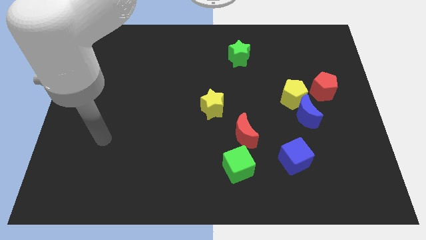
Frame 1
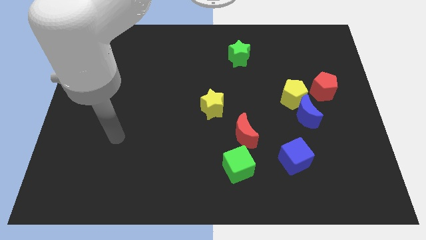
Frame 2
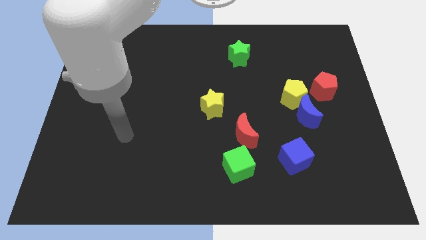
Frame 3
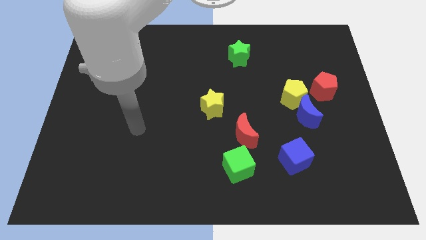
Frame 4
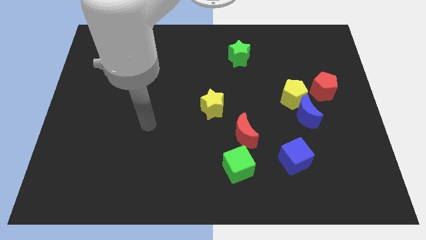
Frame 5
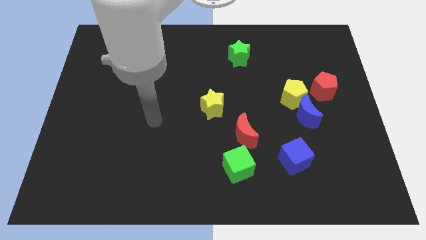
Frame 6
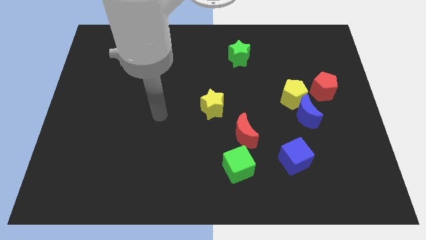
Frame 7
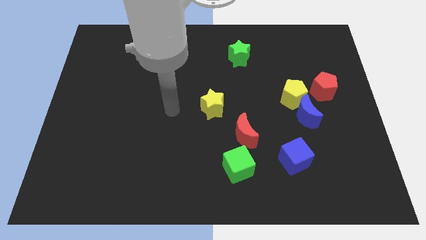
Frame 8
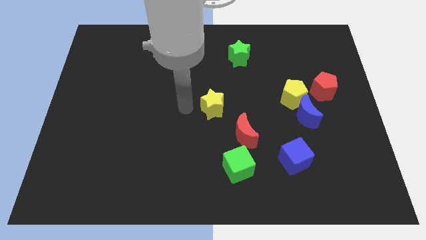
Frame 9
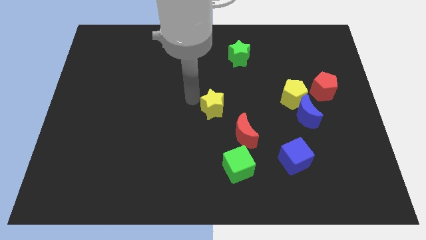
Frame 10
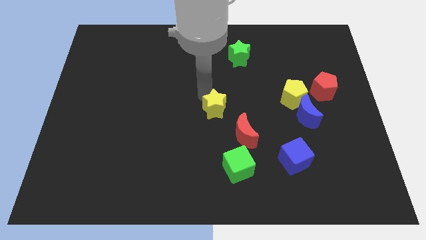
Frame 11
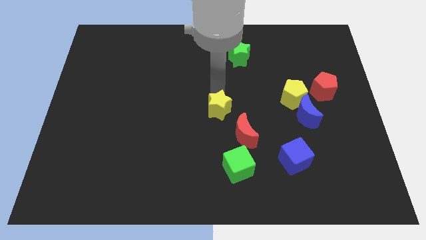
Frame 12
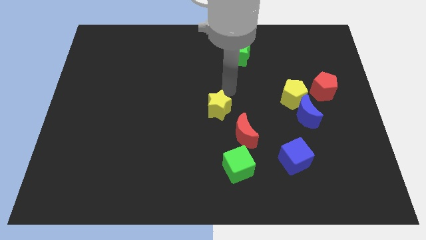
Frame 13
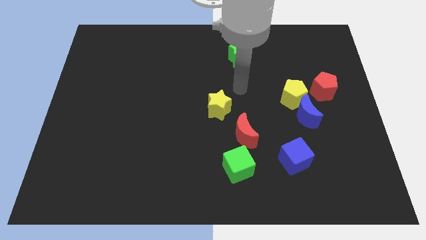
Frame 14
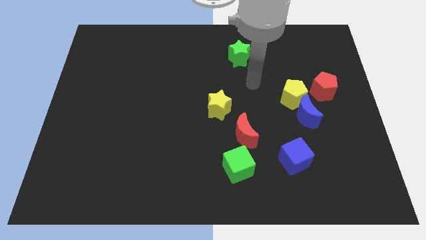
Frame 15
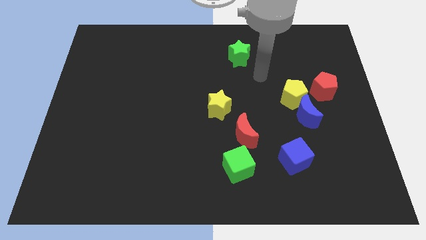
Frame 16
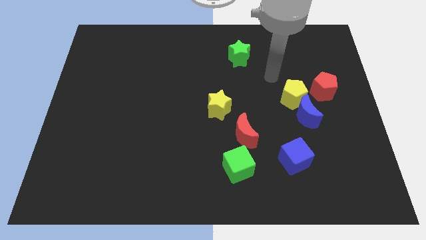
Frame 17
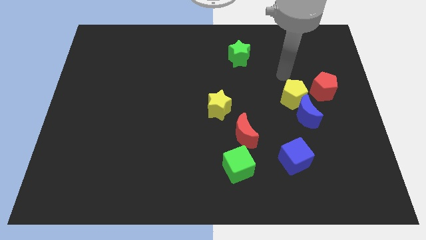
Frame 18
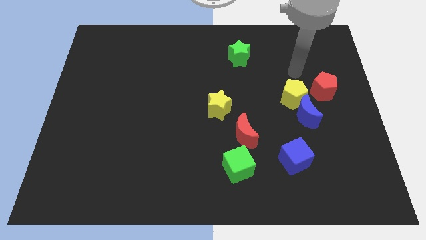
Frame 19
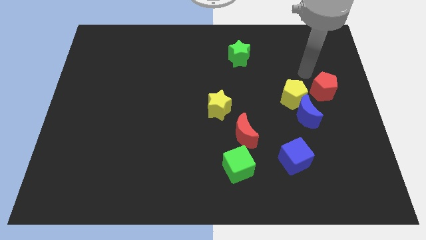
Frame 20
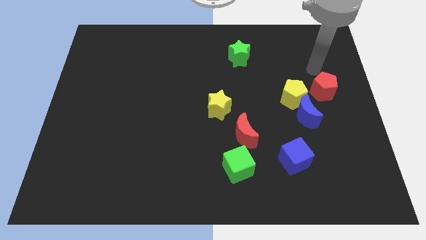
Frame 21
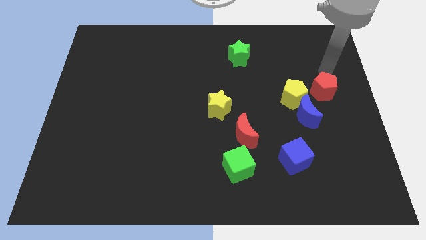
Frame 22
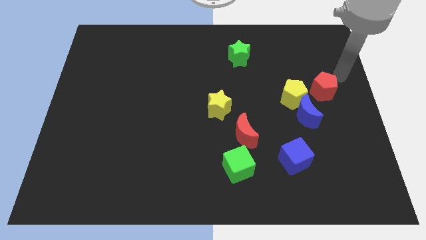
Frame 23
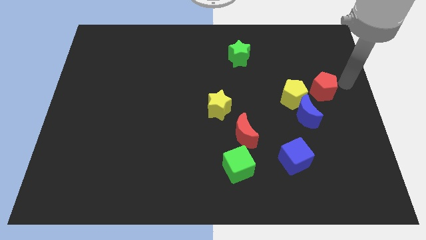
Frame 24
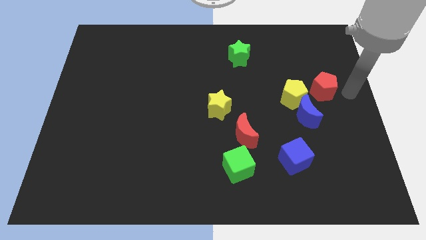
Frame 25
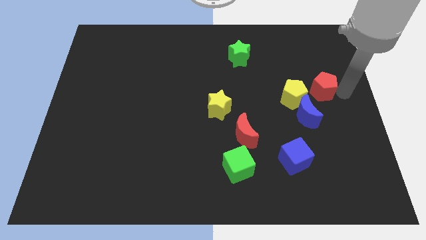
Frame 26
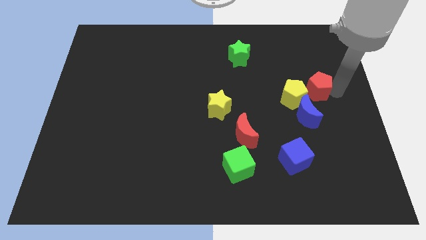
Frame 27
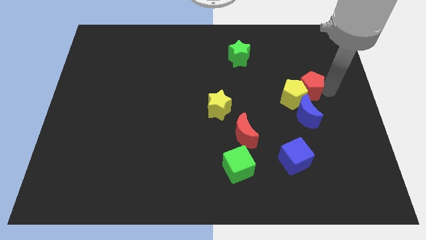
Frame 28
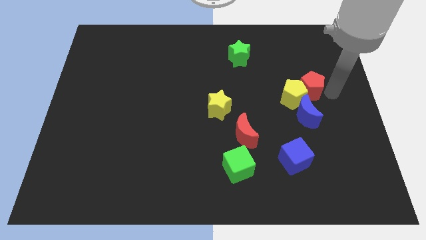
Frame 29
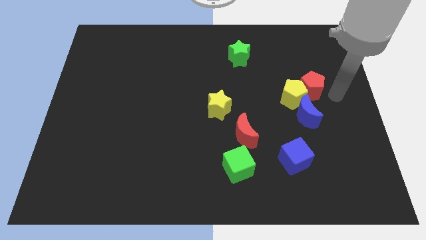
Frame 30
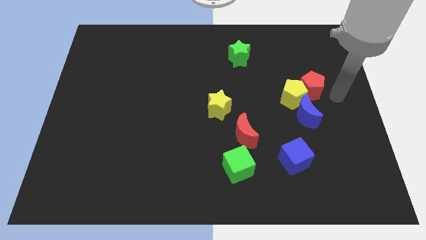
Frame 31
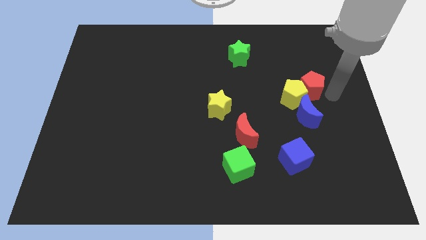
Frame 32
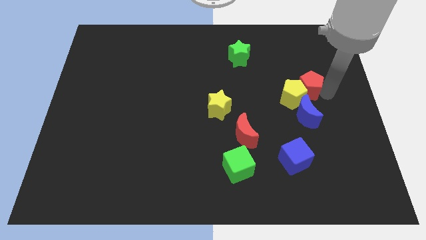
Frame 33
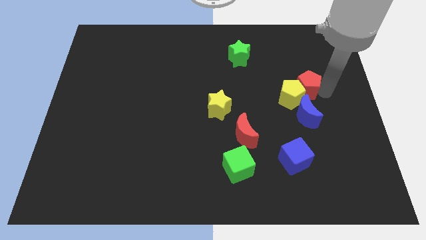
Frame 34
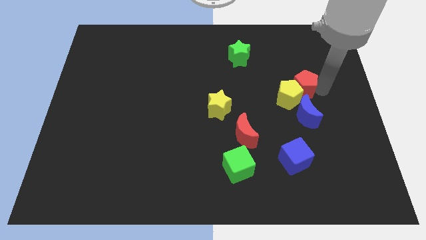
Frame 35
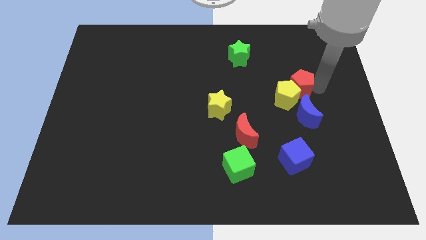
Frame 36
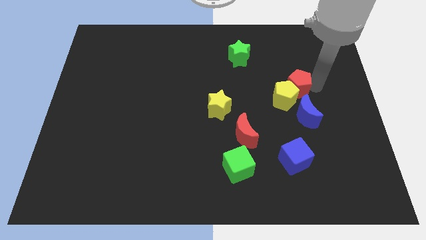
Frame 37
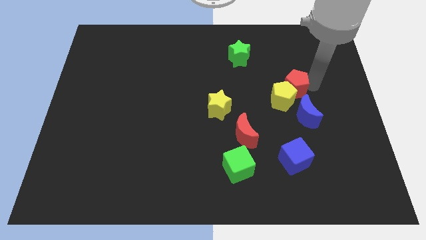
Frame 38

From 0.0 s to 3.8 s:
slide the red pentagon left slightly

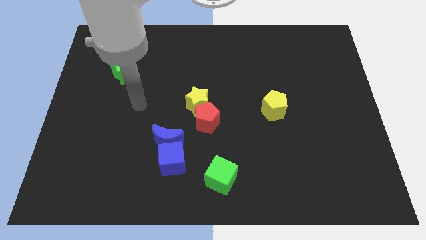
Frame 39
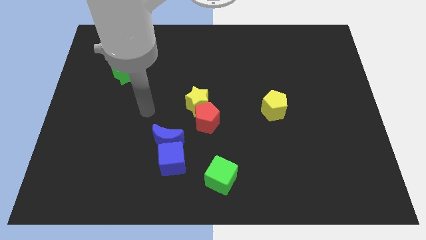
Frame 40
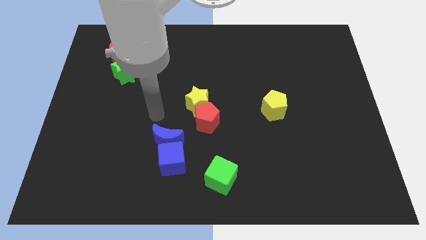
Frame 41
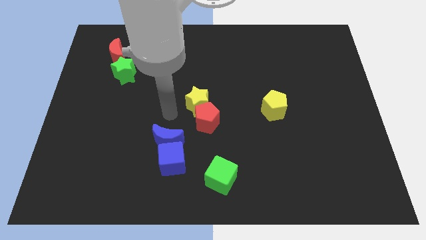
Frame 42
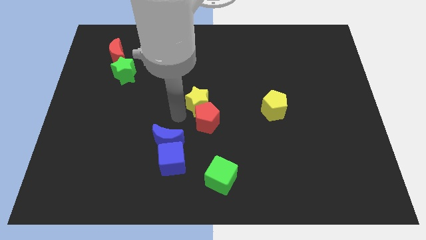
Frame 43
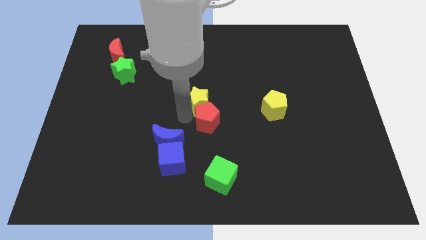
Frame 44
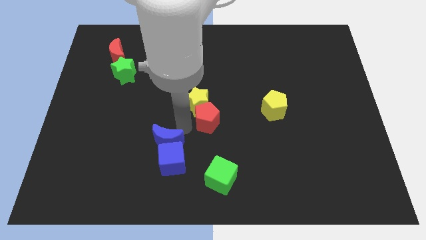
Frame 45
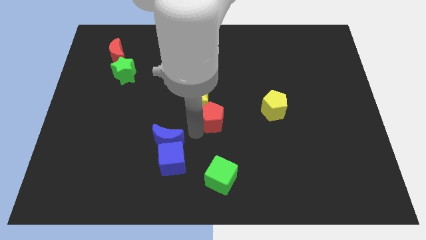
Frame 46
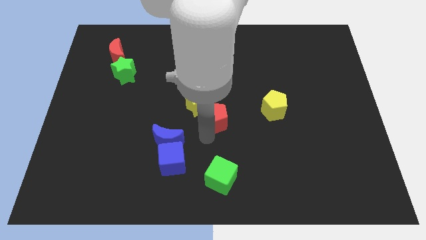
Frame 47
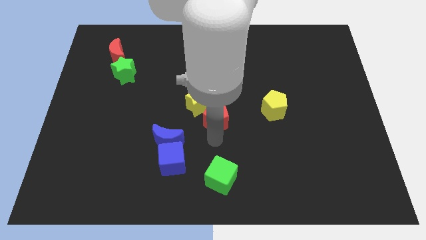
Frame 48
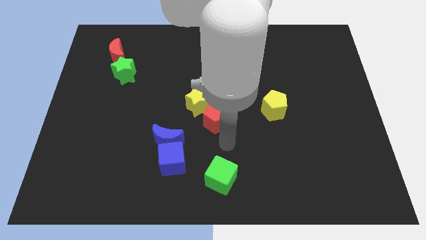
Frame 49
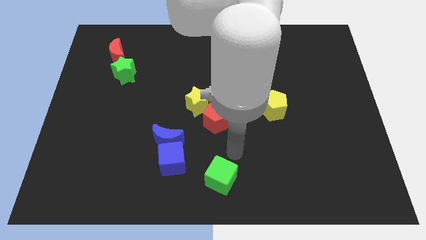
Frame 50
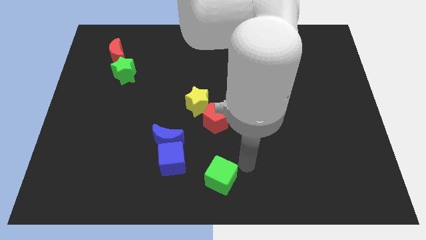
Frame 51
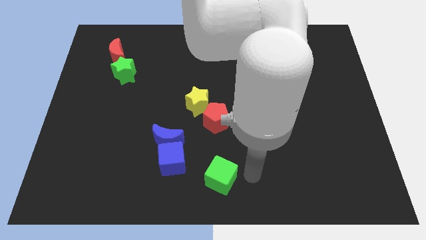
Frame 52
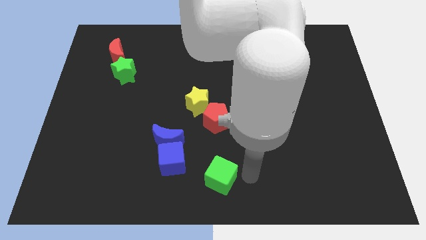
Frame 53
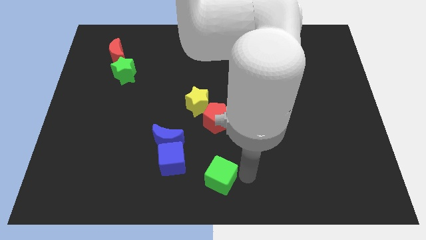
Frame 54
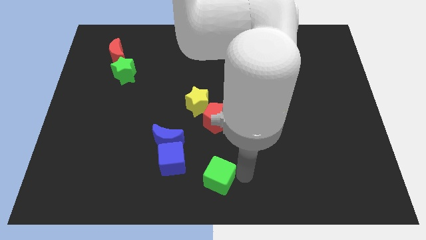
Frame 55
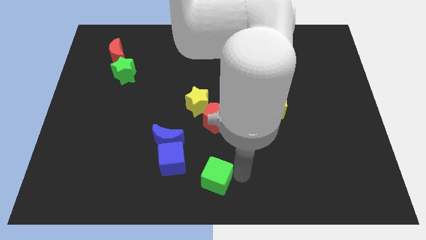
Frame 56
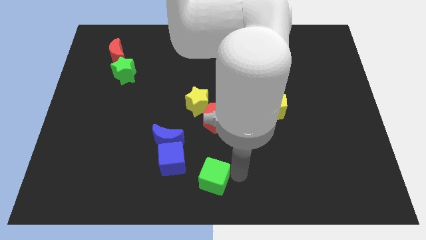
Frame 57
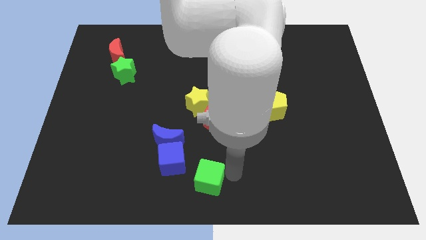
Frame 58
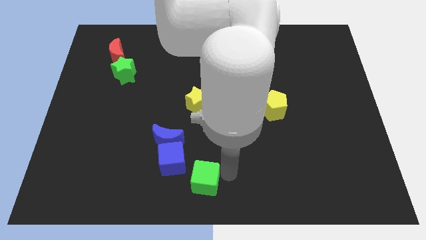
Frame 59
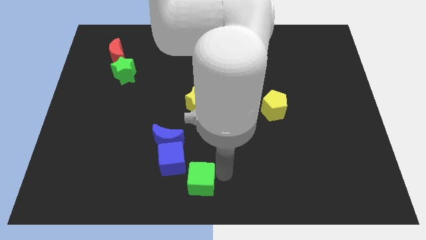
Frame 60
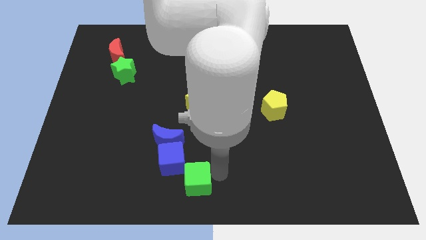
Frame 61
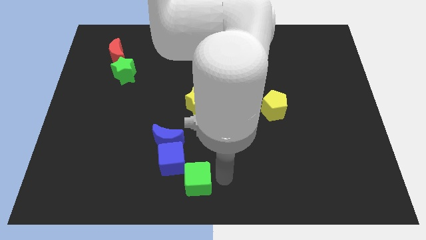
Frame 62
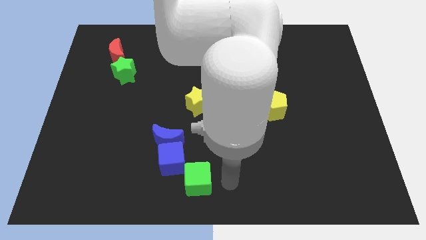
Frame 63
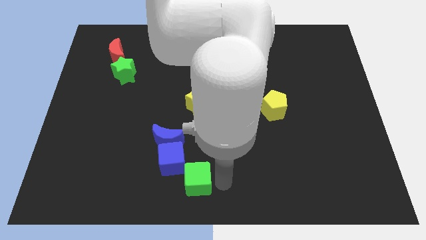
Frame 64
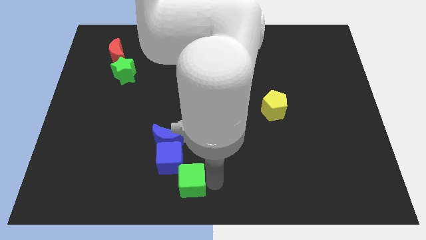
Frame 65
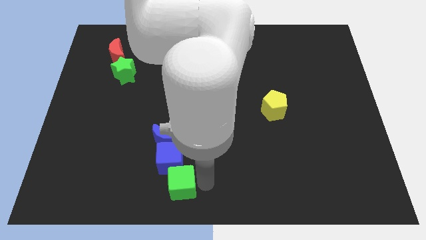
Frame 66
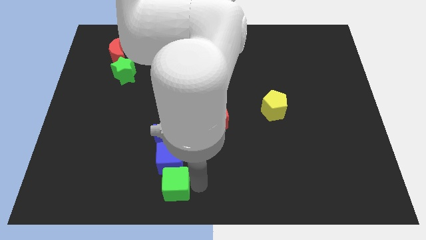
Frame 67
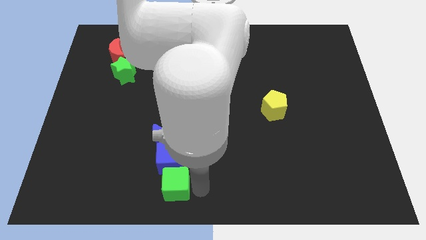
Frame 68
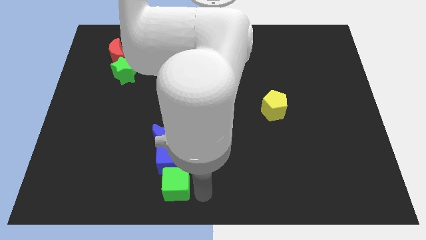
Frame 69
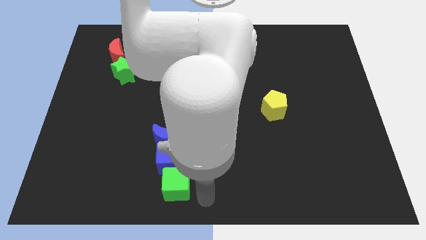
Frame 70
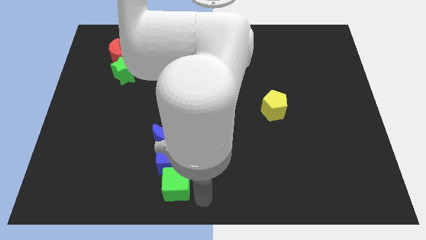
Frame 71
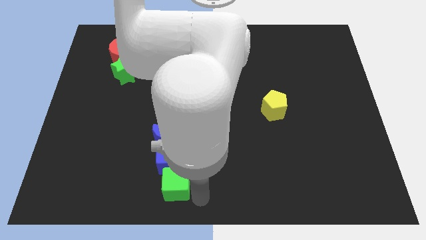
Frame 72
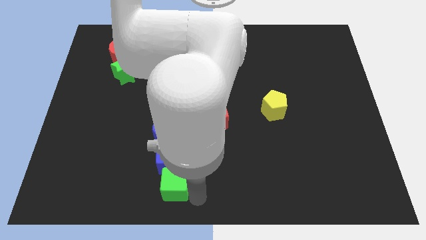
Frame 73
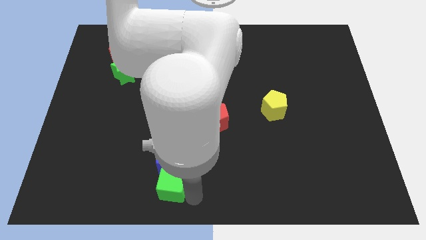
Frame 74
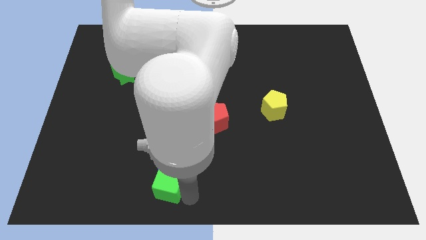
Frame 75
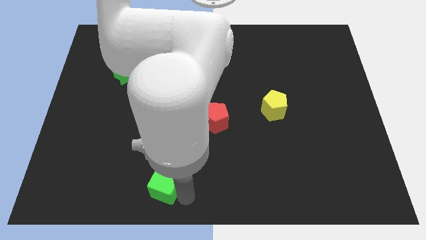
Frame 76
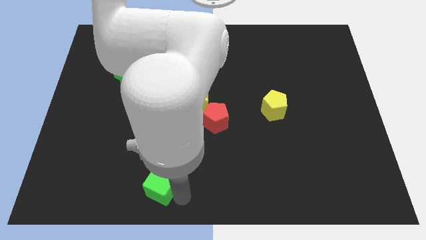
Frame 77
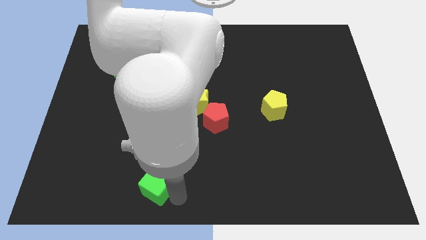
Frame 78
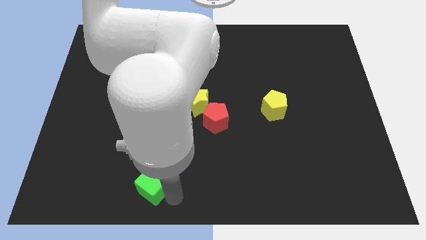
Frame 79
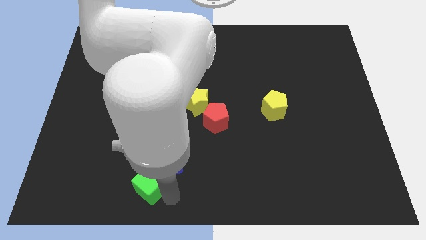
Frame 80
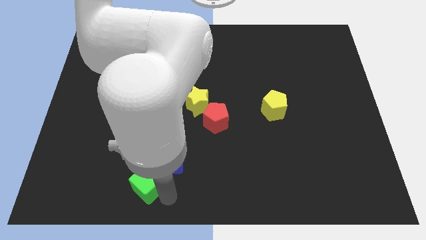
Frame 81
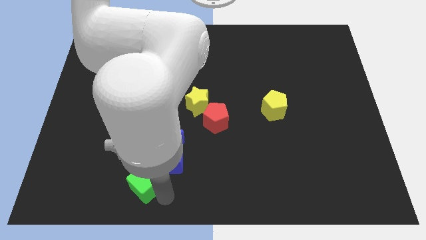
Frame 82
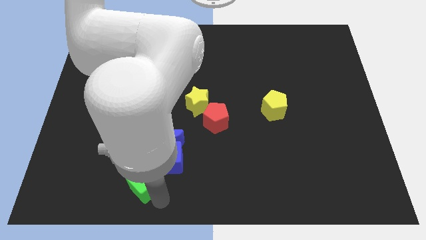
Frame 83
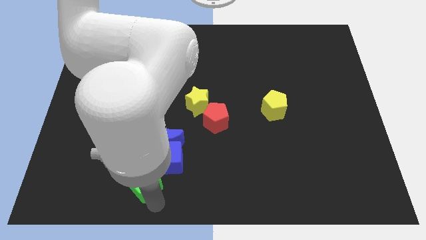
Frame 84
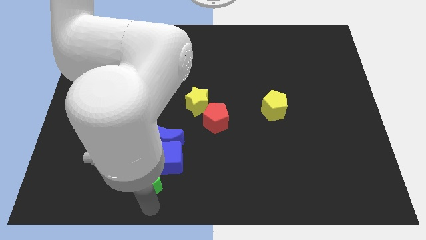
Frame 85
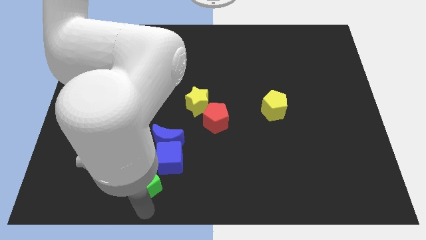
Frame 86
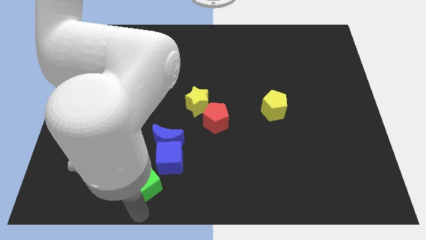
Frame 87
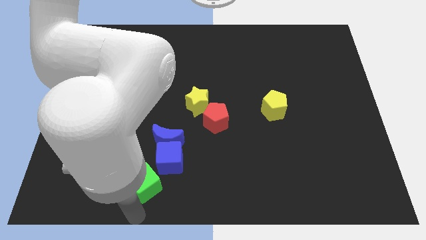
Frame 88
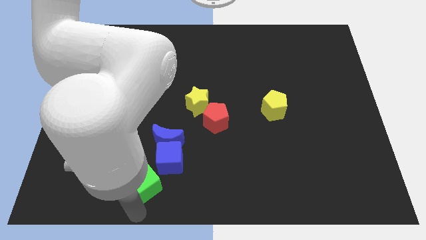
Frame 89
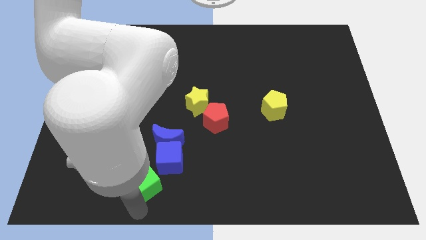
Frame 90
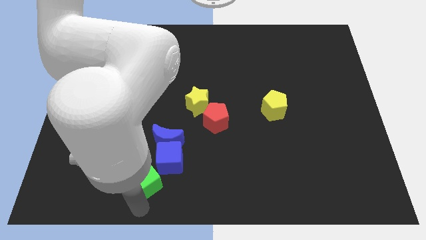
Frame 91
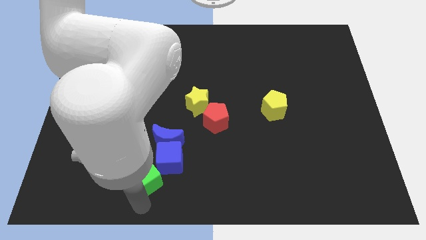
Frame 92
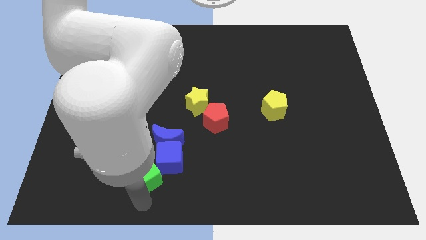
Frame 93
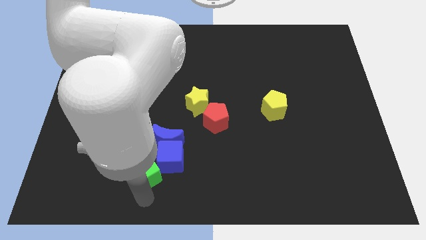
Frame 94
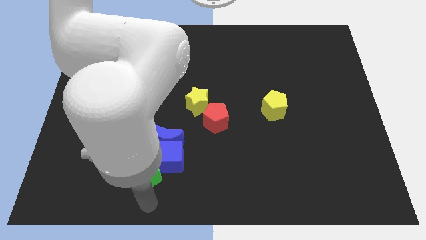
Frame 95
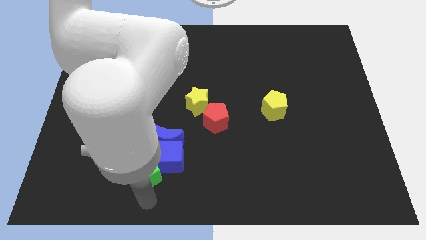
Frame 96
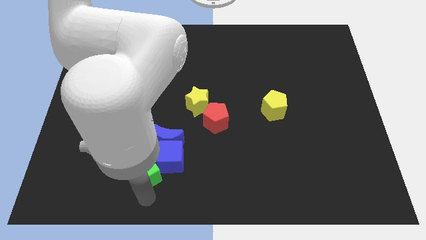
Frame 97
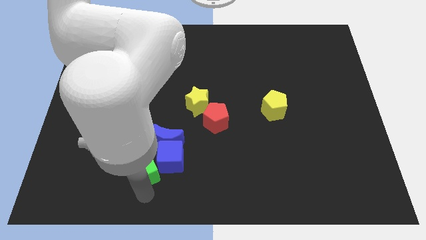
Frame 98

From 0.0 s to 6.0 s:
slightly move the green cube up and left
